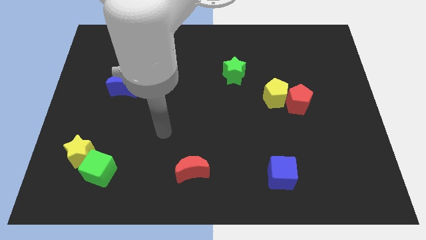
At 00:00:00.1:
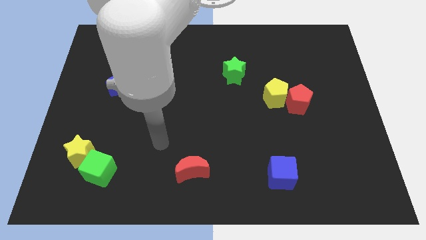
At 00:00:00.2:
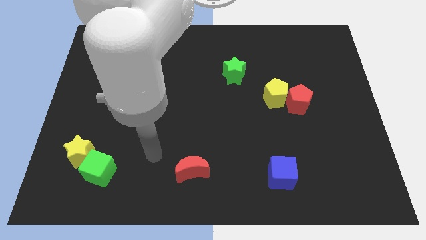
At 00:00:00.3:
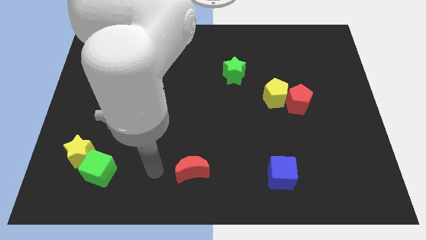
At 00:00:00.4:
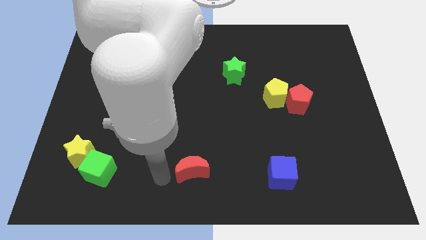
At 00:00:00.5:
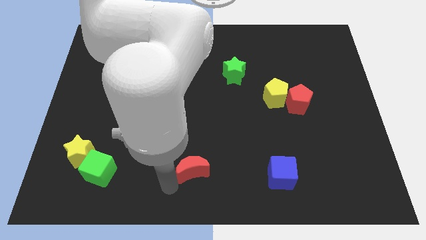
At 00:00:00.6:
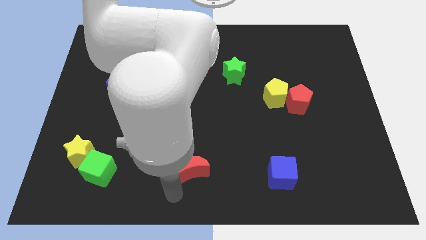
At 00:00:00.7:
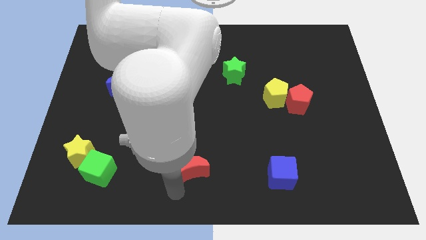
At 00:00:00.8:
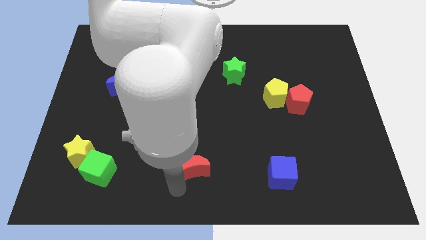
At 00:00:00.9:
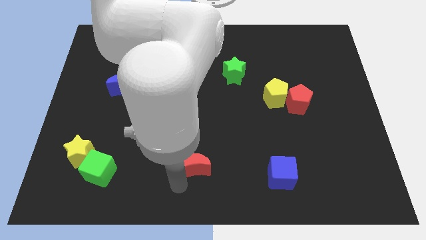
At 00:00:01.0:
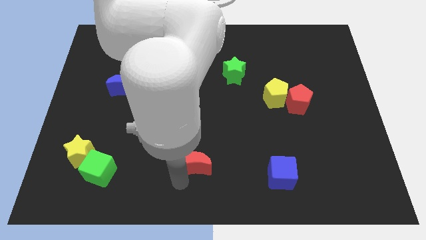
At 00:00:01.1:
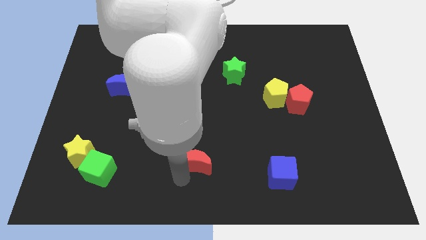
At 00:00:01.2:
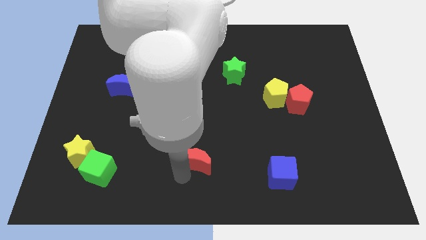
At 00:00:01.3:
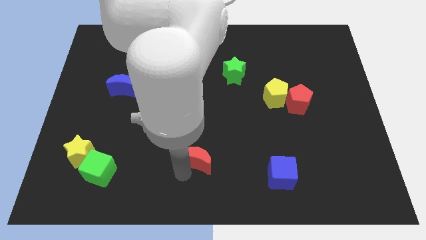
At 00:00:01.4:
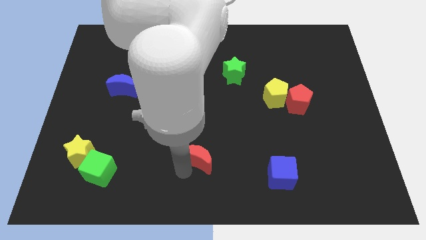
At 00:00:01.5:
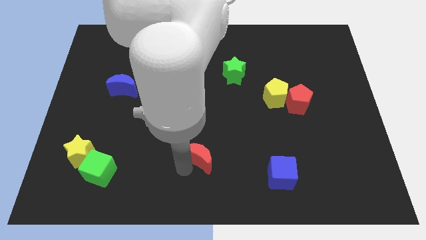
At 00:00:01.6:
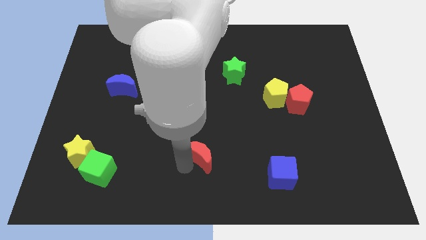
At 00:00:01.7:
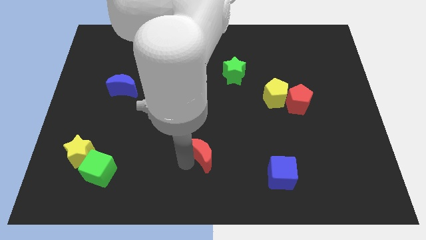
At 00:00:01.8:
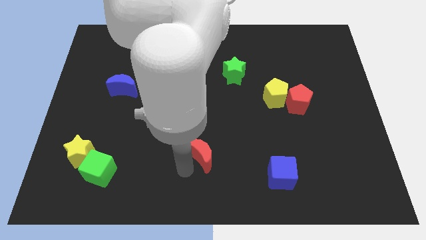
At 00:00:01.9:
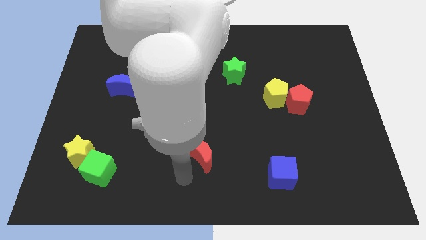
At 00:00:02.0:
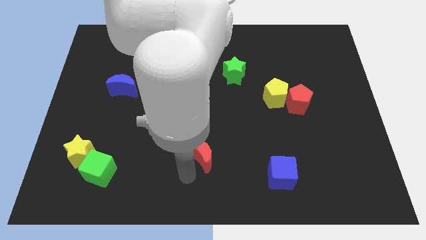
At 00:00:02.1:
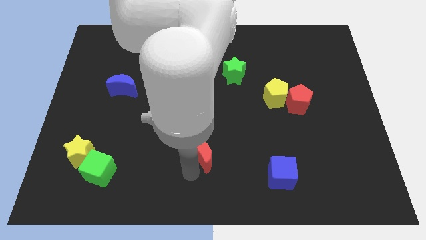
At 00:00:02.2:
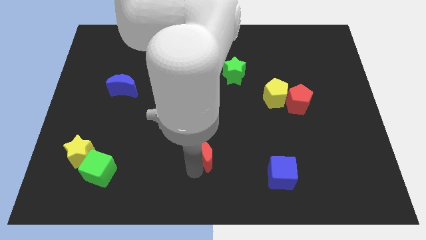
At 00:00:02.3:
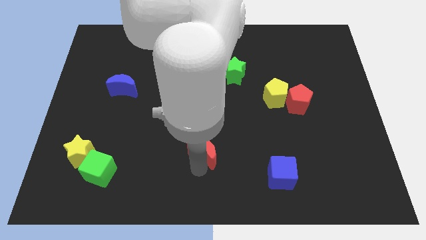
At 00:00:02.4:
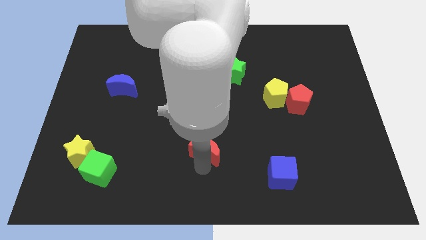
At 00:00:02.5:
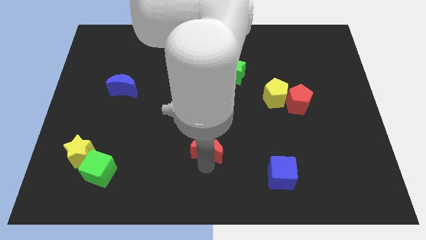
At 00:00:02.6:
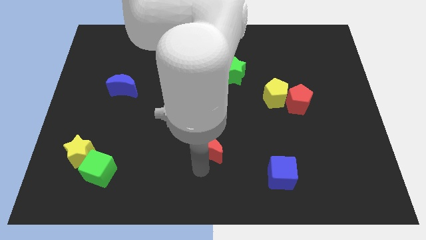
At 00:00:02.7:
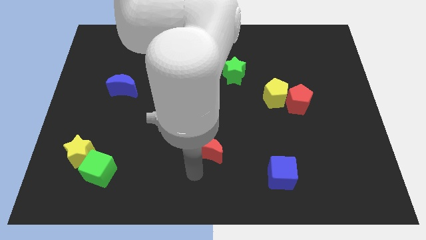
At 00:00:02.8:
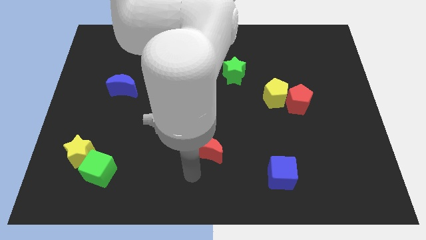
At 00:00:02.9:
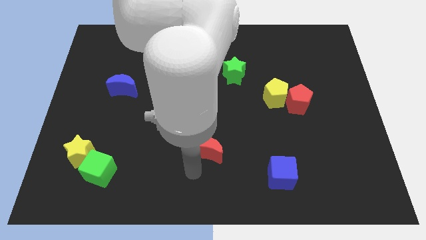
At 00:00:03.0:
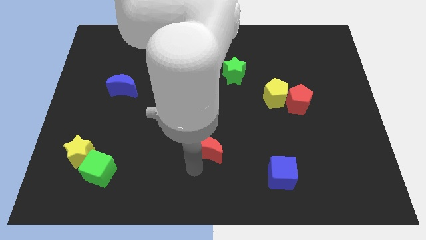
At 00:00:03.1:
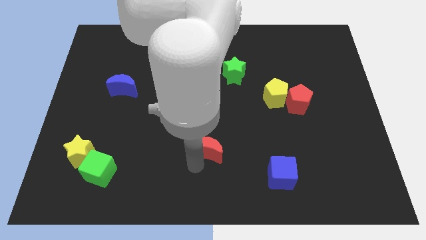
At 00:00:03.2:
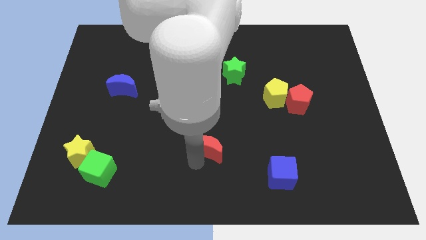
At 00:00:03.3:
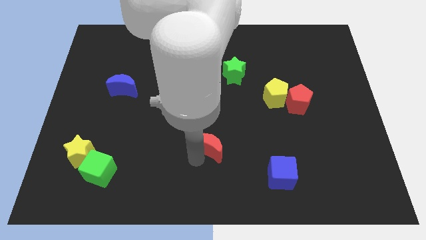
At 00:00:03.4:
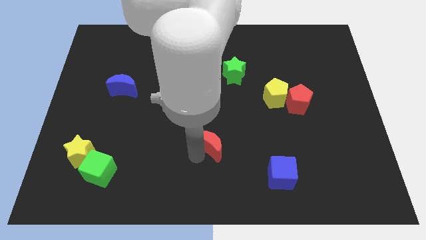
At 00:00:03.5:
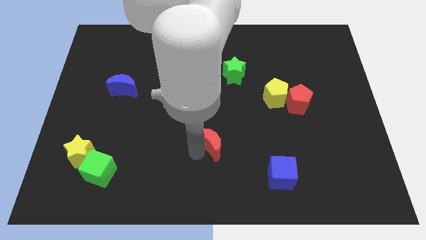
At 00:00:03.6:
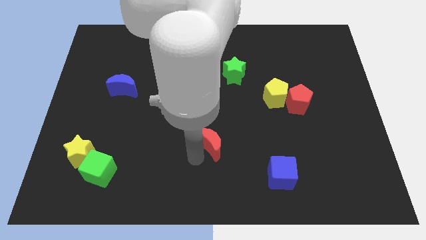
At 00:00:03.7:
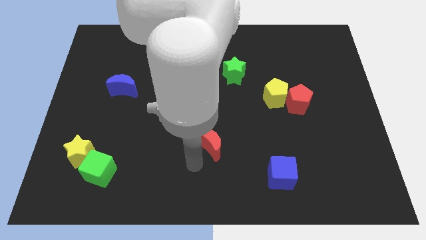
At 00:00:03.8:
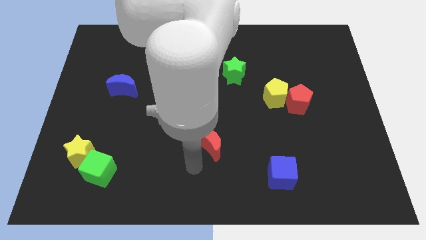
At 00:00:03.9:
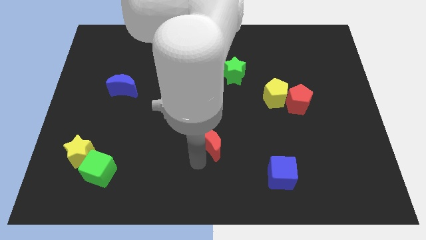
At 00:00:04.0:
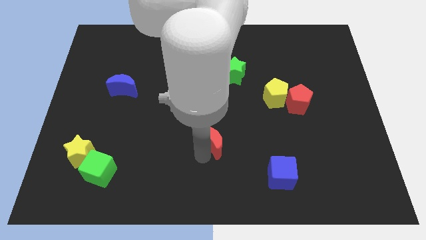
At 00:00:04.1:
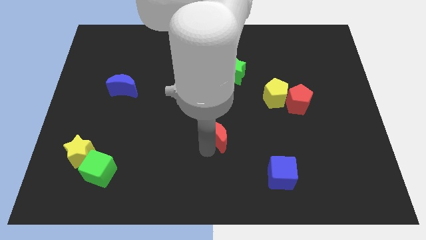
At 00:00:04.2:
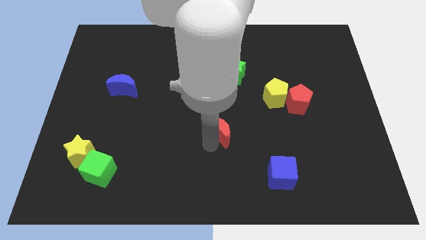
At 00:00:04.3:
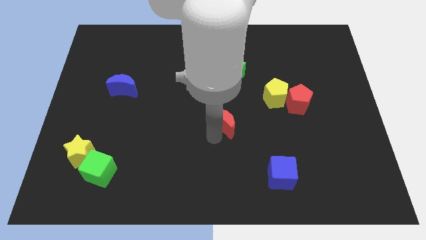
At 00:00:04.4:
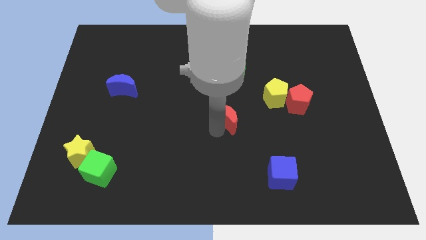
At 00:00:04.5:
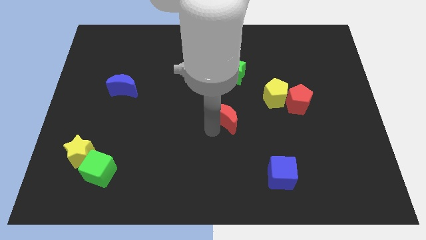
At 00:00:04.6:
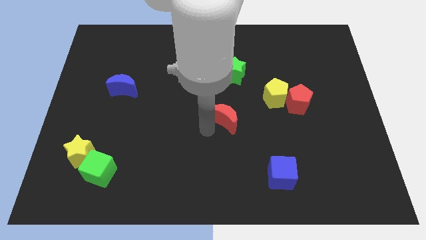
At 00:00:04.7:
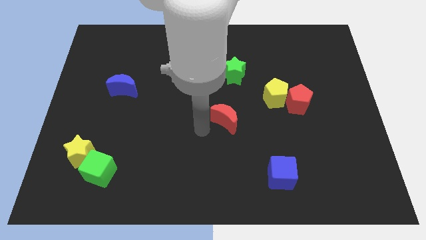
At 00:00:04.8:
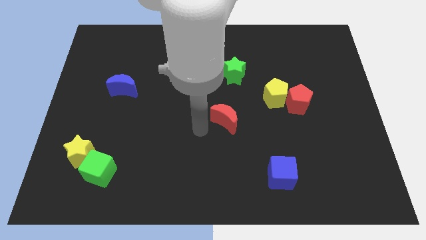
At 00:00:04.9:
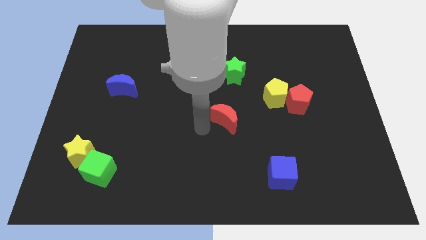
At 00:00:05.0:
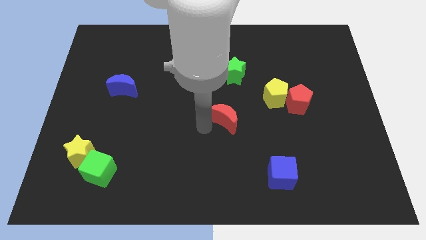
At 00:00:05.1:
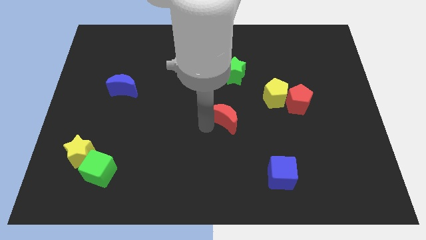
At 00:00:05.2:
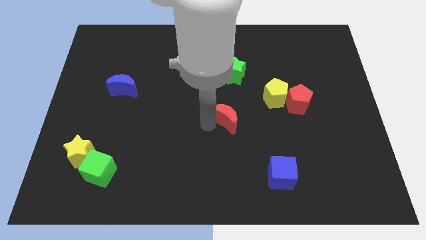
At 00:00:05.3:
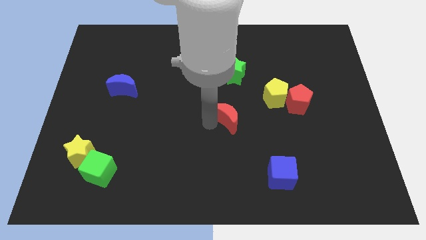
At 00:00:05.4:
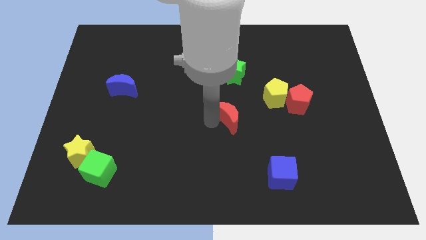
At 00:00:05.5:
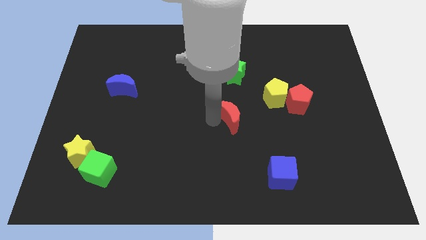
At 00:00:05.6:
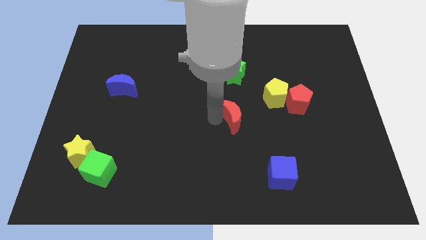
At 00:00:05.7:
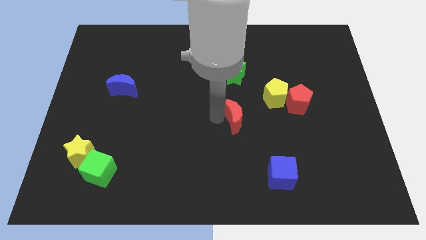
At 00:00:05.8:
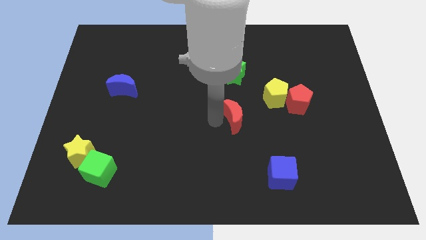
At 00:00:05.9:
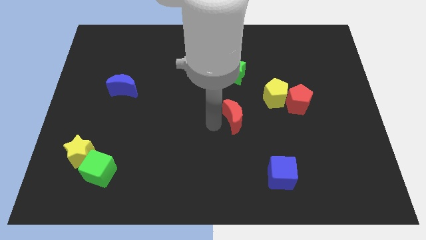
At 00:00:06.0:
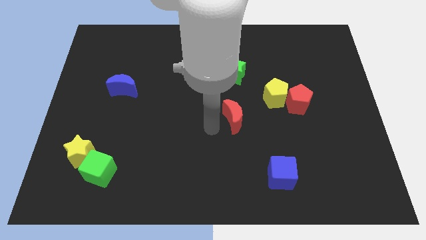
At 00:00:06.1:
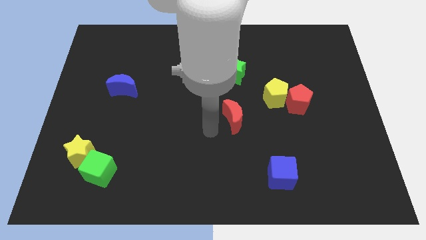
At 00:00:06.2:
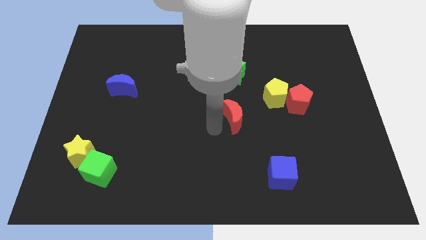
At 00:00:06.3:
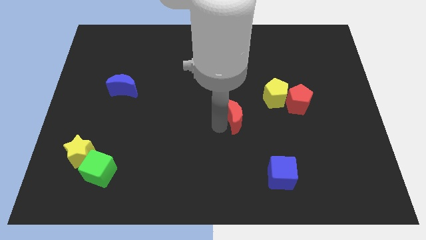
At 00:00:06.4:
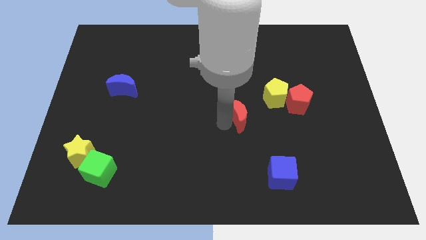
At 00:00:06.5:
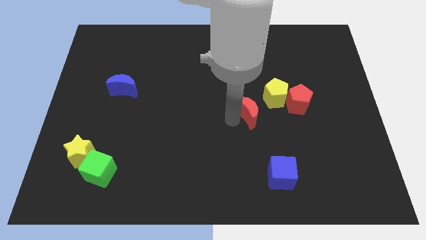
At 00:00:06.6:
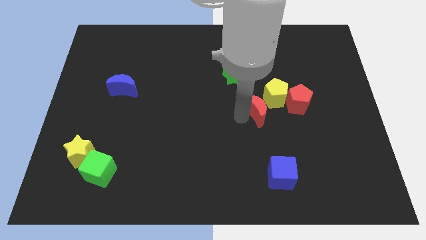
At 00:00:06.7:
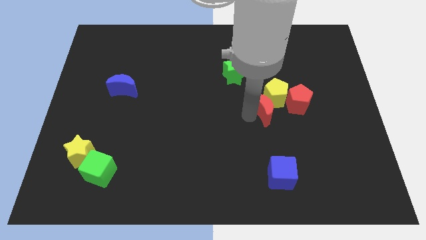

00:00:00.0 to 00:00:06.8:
put the red moon close to the yellow pentagon

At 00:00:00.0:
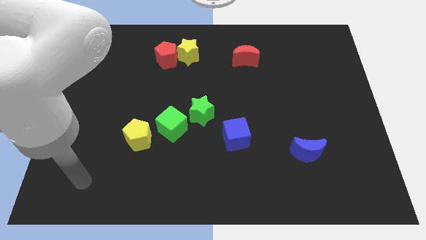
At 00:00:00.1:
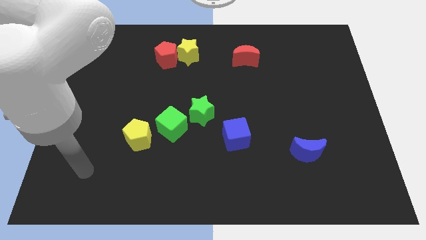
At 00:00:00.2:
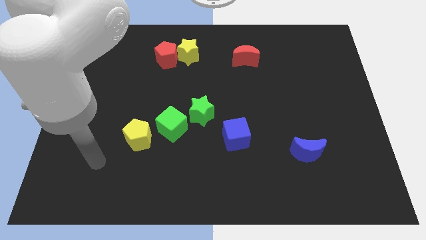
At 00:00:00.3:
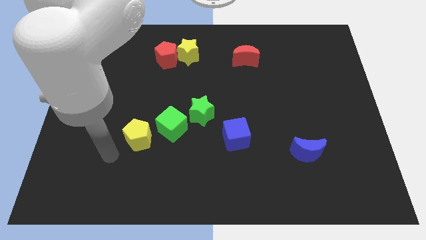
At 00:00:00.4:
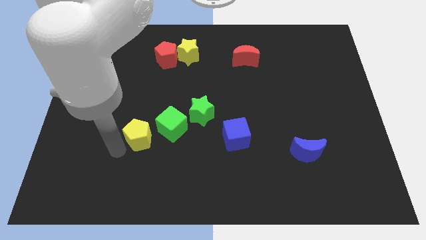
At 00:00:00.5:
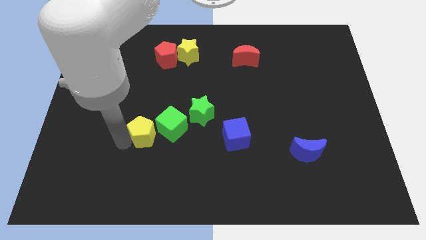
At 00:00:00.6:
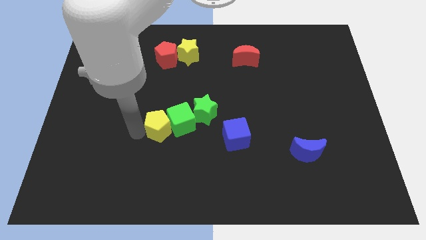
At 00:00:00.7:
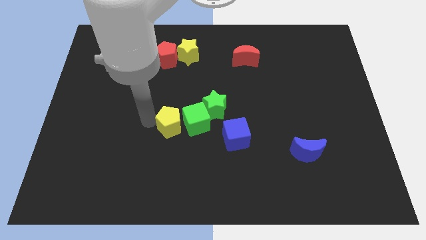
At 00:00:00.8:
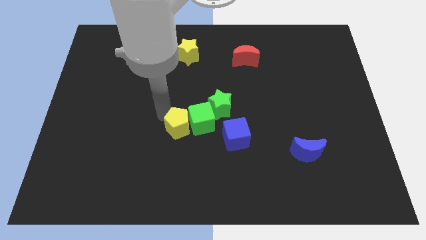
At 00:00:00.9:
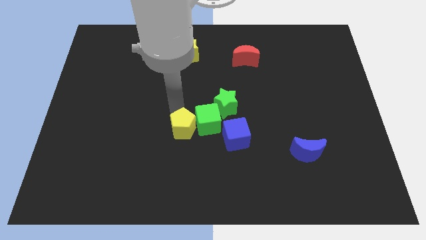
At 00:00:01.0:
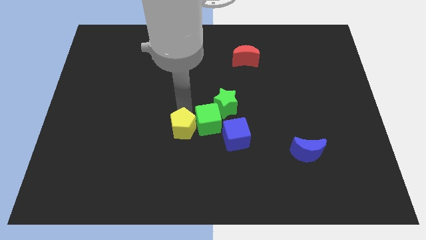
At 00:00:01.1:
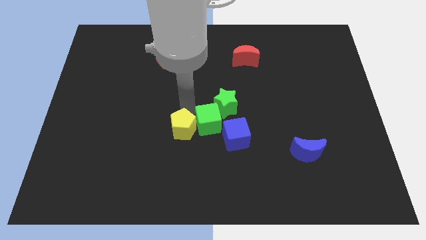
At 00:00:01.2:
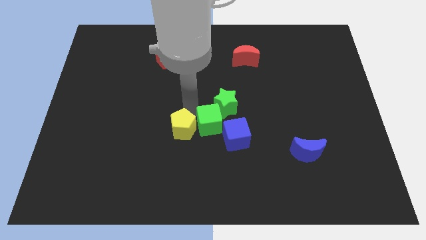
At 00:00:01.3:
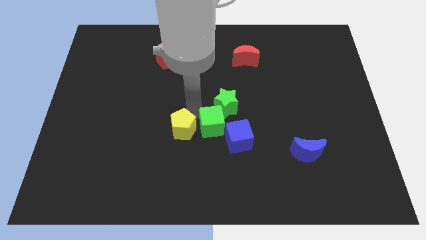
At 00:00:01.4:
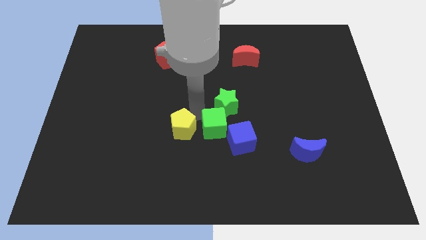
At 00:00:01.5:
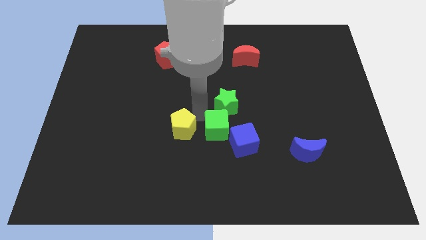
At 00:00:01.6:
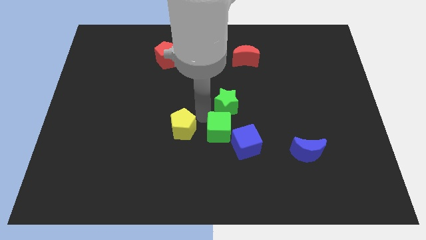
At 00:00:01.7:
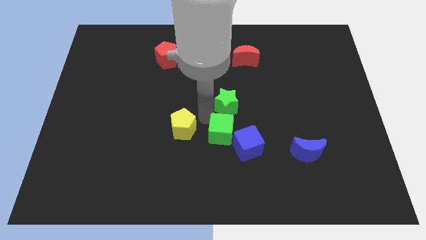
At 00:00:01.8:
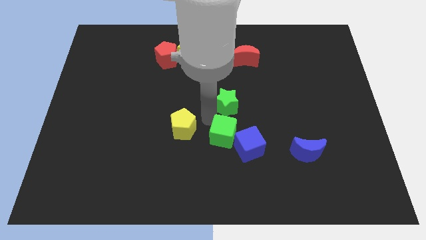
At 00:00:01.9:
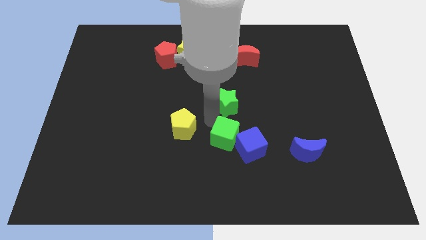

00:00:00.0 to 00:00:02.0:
slide the green cube to the blue cube
